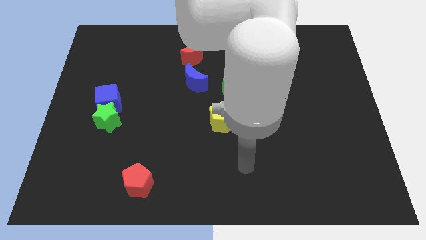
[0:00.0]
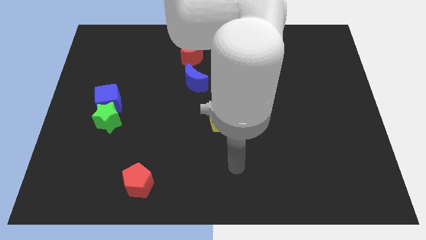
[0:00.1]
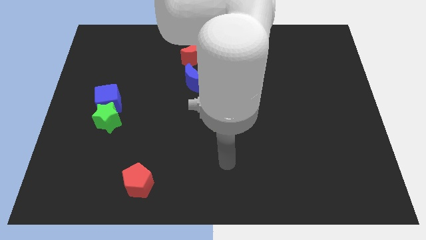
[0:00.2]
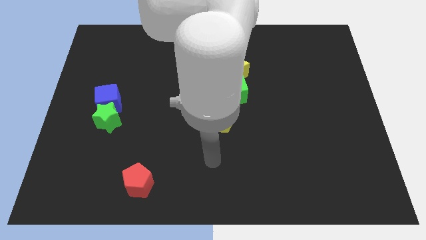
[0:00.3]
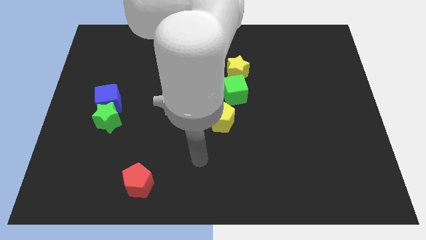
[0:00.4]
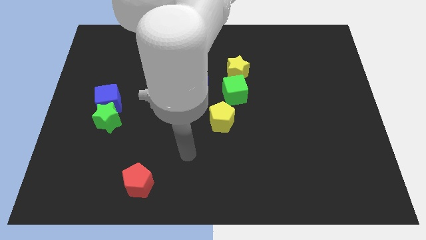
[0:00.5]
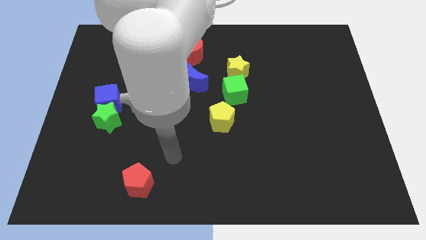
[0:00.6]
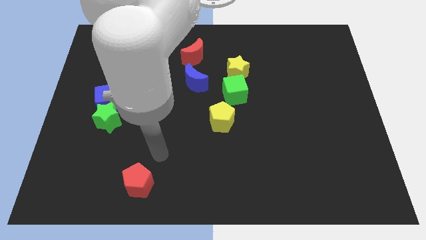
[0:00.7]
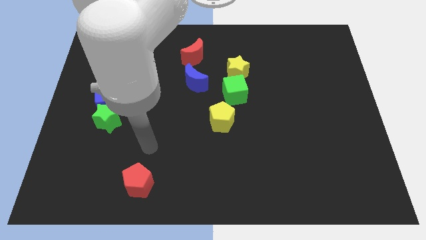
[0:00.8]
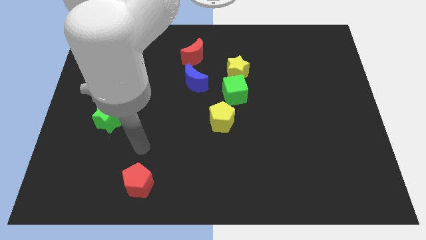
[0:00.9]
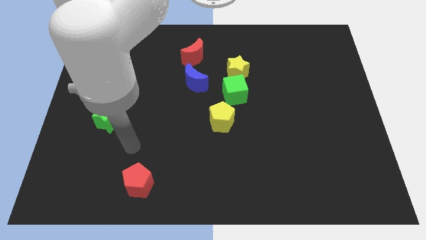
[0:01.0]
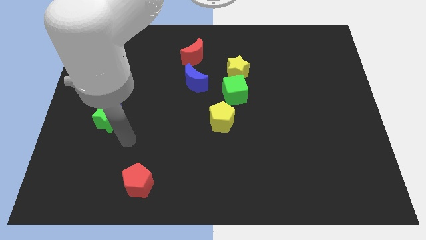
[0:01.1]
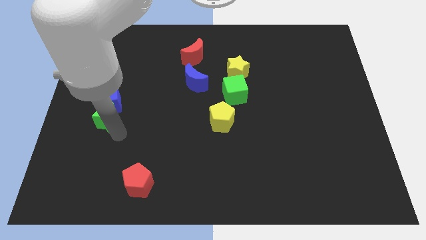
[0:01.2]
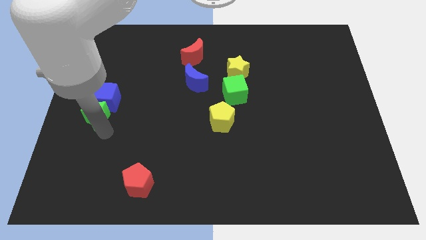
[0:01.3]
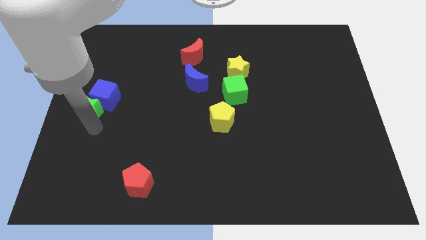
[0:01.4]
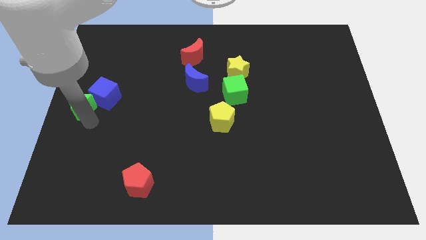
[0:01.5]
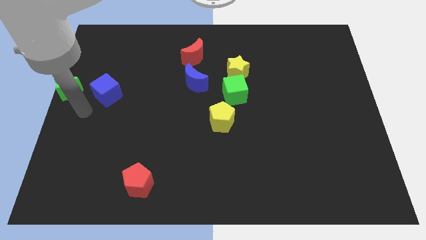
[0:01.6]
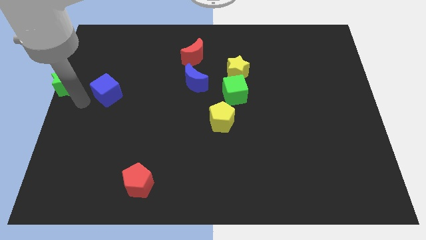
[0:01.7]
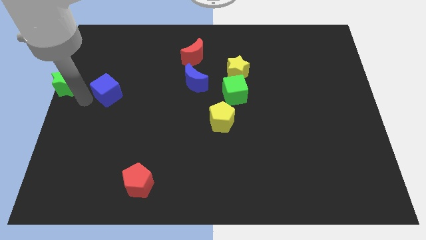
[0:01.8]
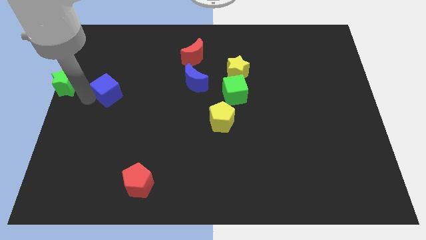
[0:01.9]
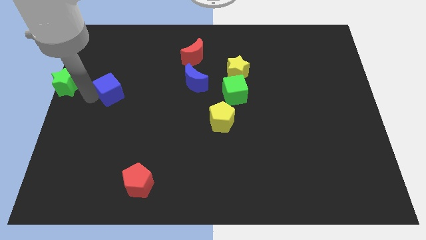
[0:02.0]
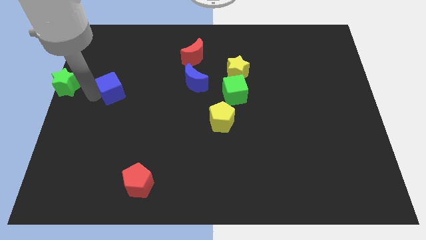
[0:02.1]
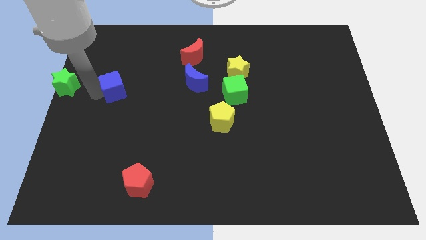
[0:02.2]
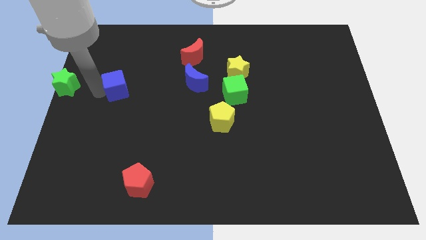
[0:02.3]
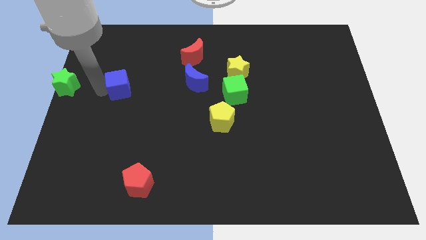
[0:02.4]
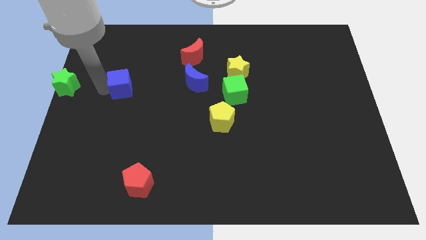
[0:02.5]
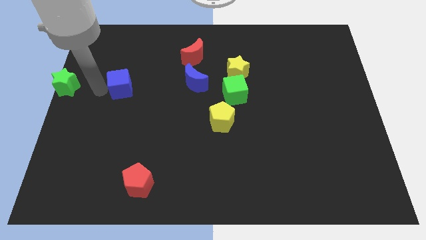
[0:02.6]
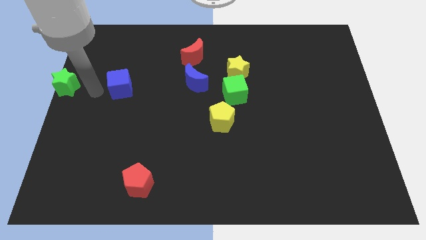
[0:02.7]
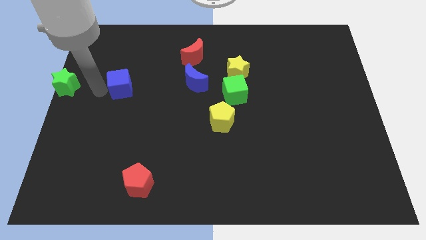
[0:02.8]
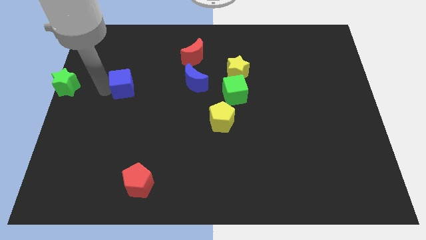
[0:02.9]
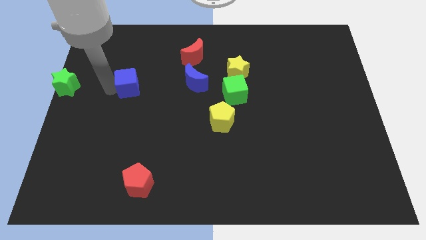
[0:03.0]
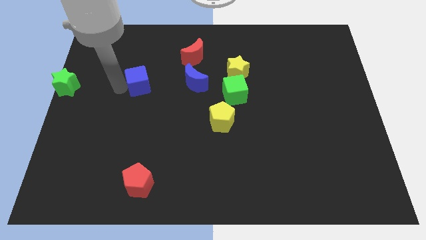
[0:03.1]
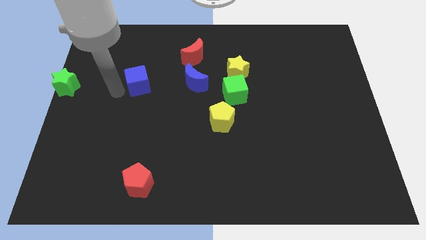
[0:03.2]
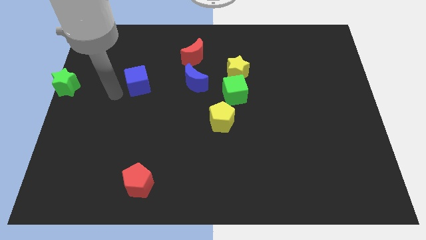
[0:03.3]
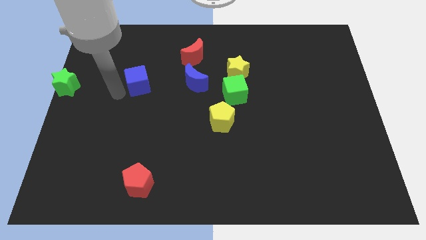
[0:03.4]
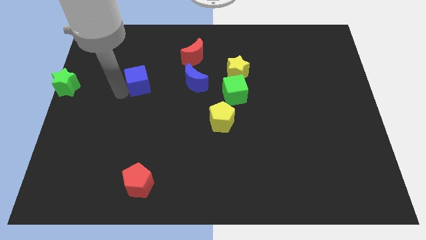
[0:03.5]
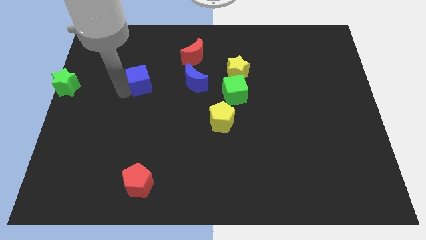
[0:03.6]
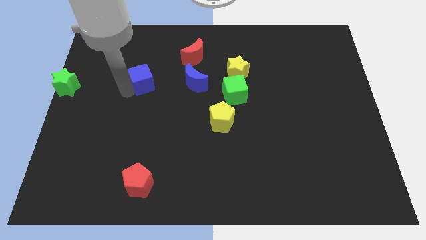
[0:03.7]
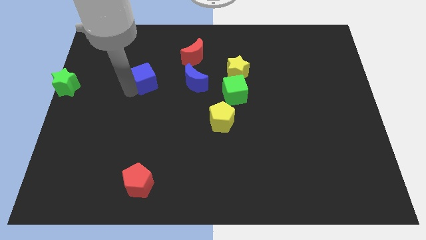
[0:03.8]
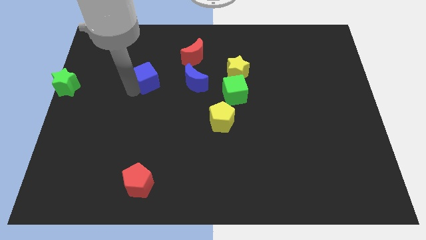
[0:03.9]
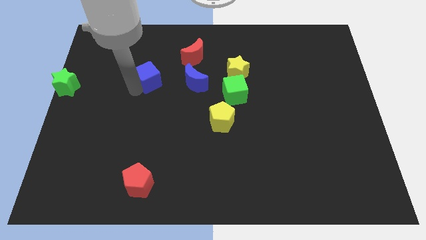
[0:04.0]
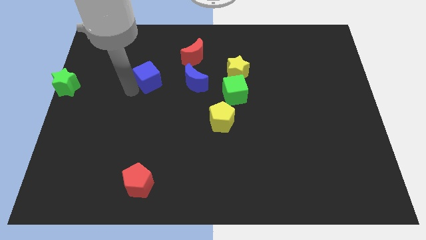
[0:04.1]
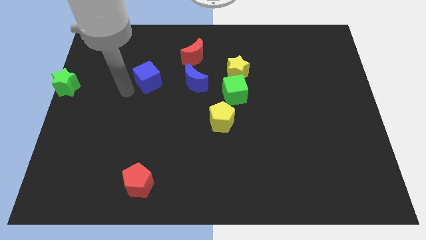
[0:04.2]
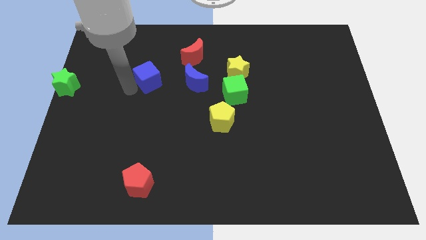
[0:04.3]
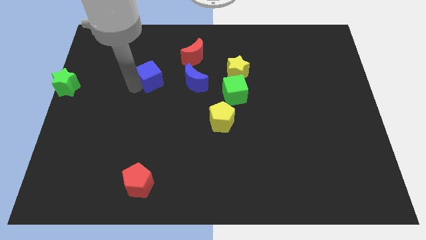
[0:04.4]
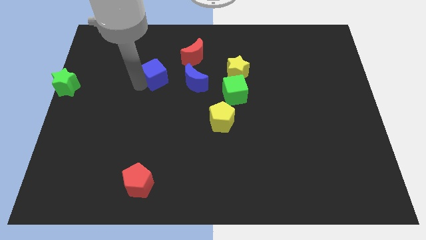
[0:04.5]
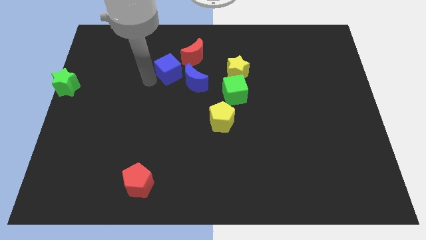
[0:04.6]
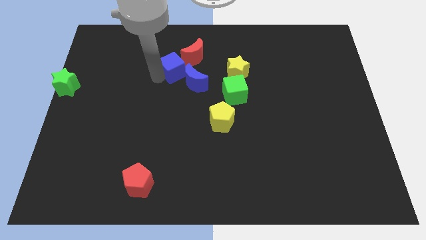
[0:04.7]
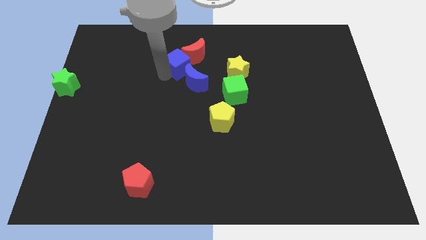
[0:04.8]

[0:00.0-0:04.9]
put the blue cube close to the red moon

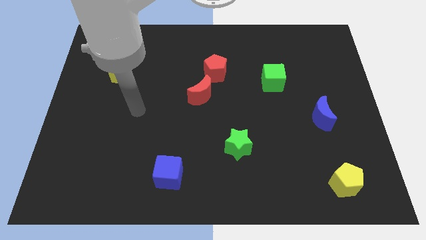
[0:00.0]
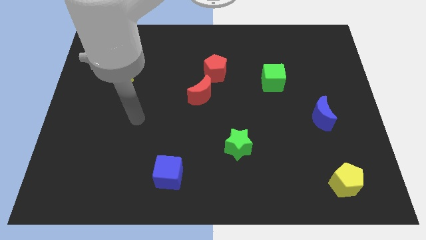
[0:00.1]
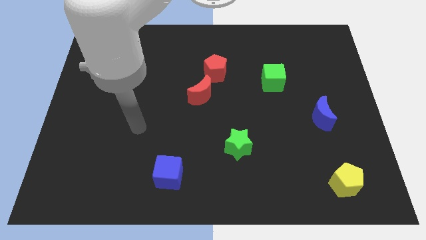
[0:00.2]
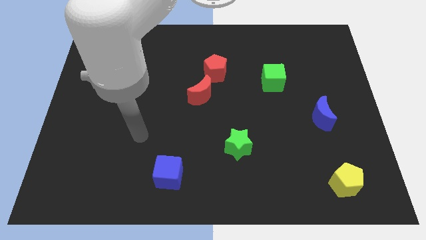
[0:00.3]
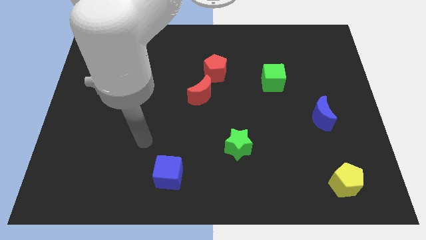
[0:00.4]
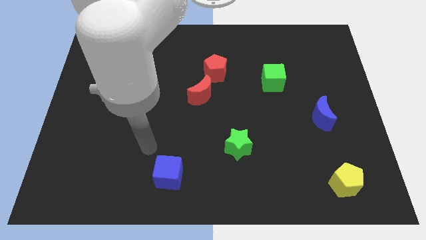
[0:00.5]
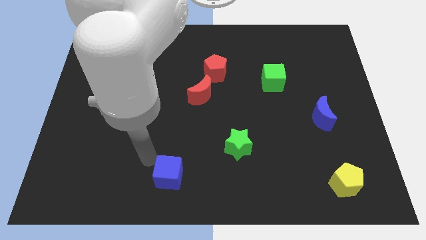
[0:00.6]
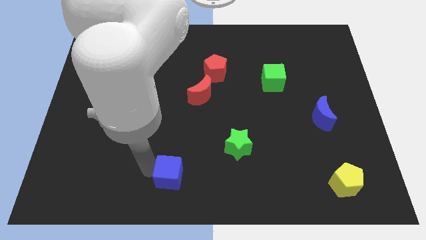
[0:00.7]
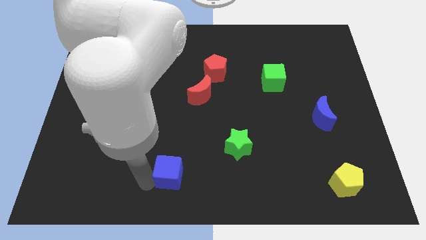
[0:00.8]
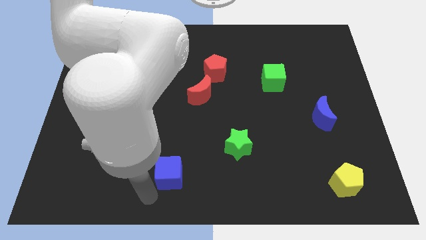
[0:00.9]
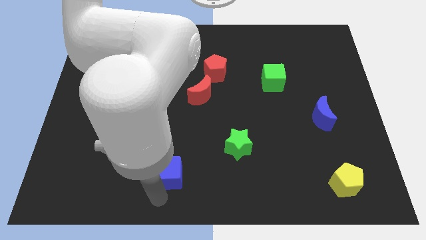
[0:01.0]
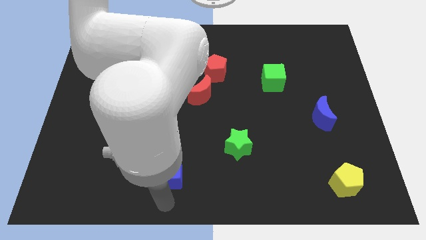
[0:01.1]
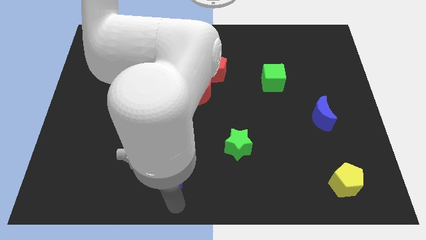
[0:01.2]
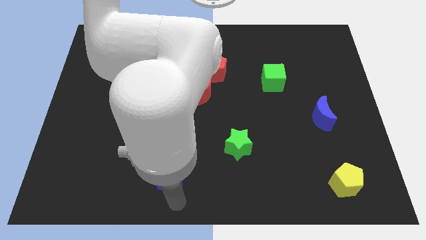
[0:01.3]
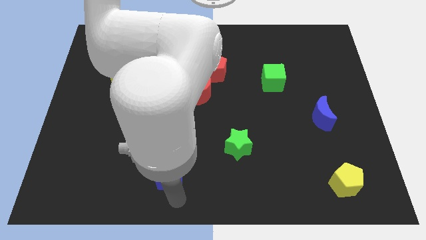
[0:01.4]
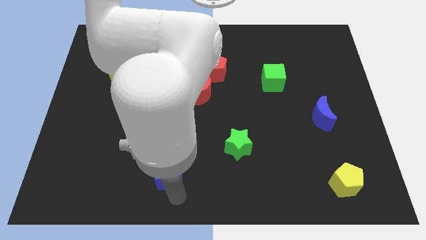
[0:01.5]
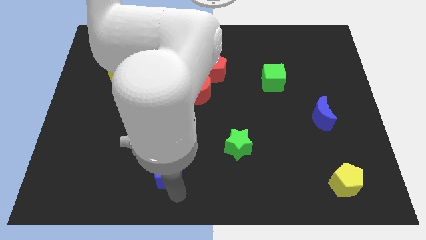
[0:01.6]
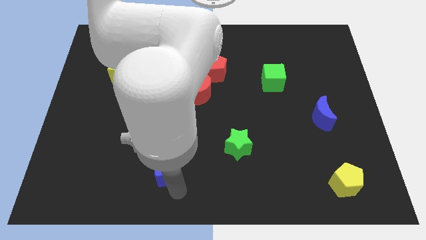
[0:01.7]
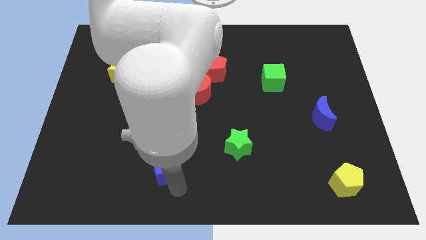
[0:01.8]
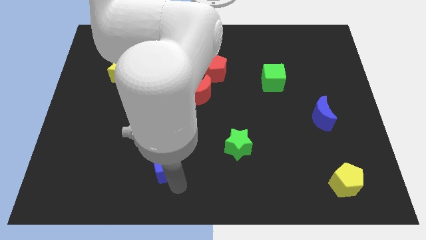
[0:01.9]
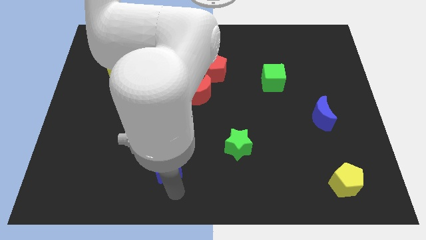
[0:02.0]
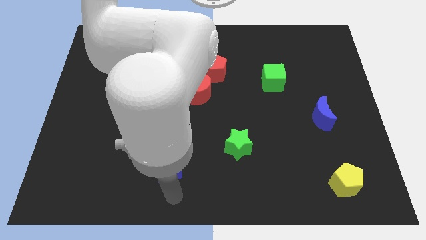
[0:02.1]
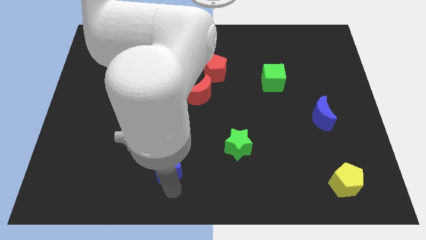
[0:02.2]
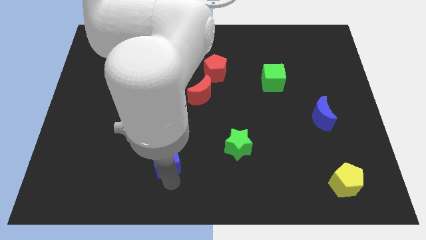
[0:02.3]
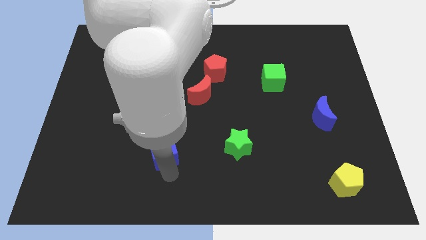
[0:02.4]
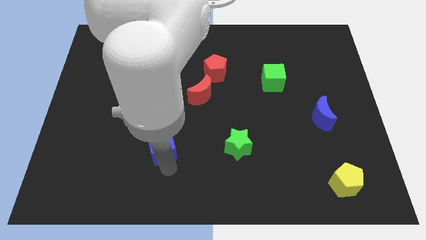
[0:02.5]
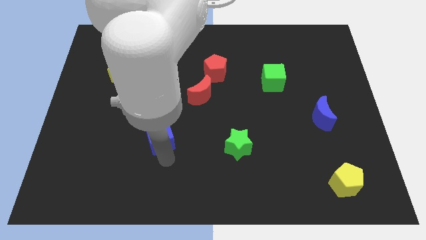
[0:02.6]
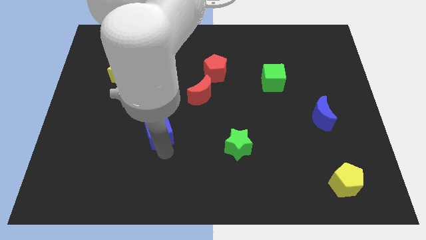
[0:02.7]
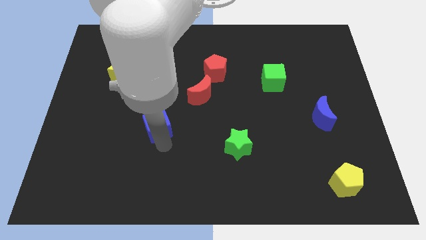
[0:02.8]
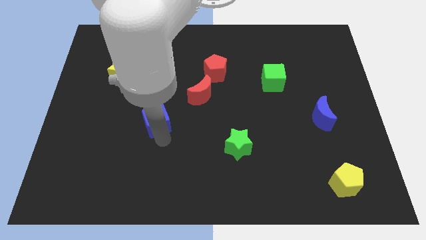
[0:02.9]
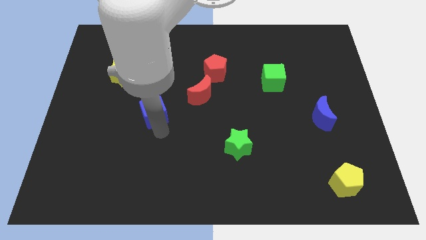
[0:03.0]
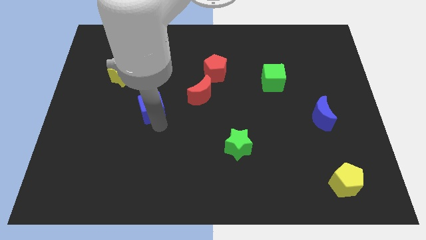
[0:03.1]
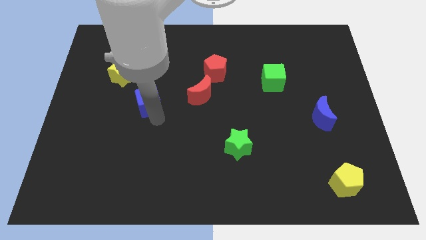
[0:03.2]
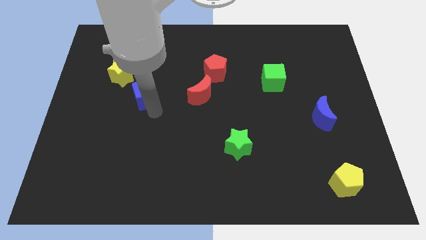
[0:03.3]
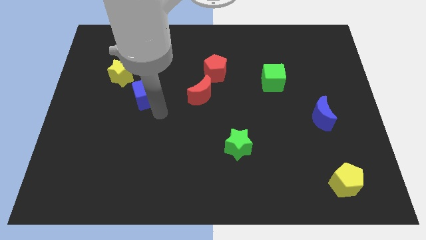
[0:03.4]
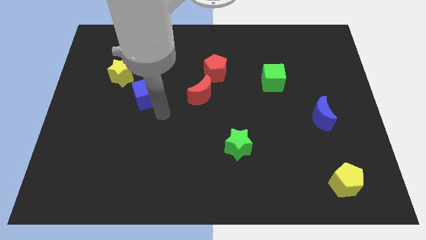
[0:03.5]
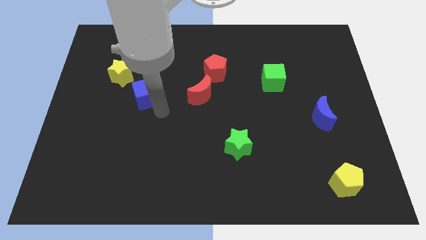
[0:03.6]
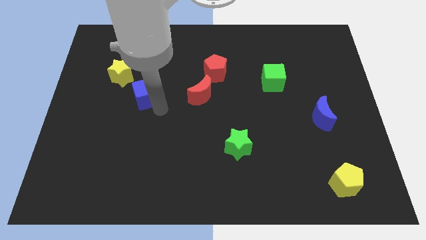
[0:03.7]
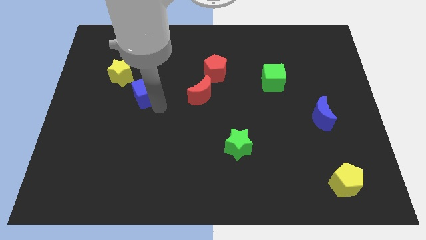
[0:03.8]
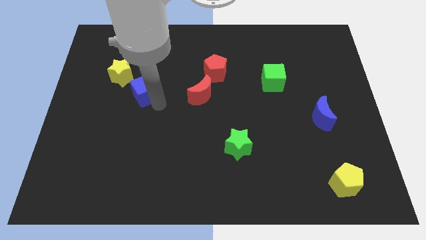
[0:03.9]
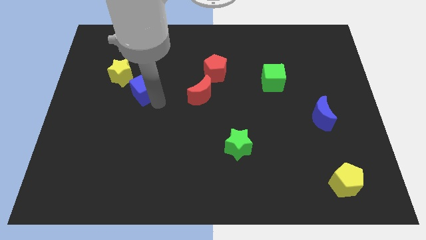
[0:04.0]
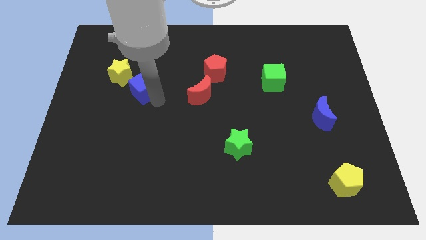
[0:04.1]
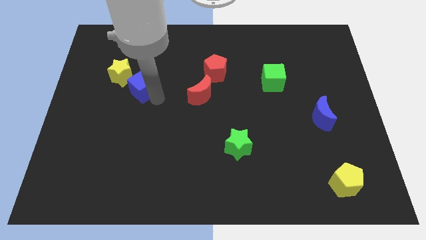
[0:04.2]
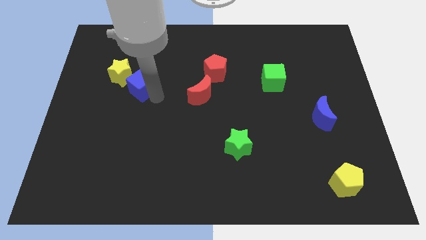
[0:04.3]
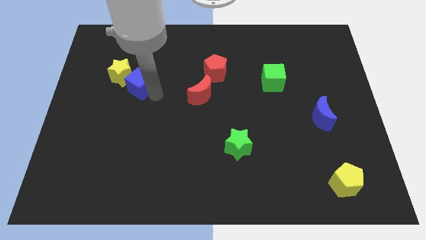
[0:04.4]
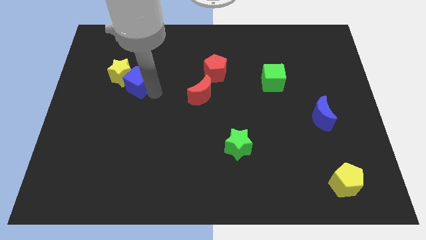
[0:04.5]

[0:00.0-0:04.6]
move the blue cube towards the yellow star
